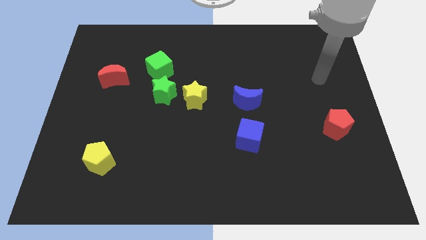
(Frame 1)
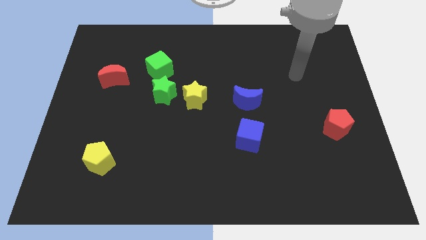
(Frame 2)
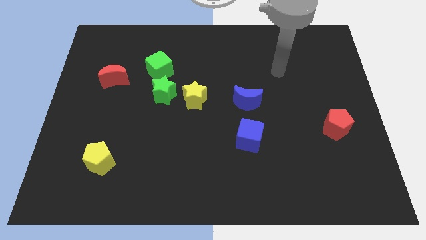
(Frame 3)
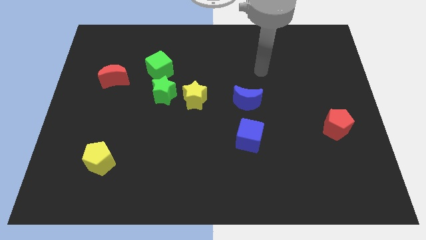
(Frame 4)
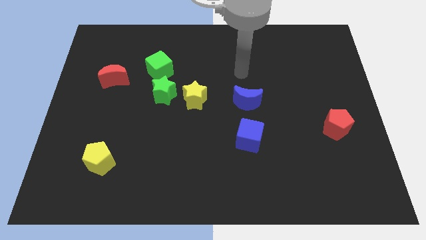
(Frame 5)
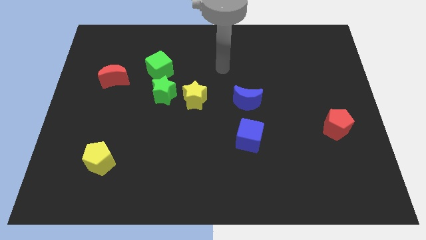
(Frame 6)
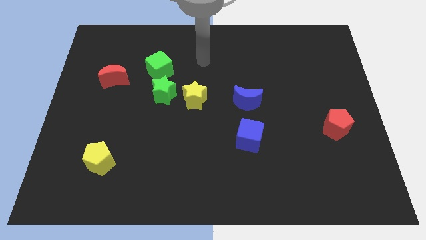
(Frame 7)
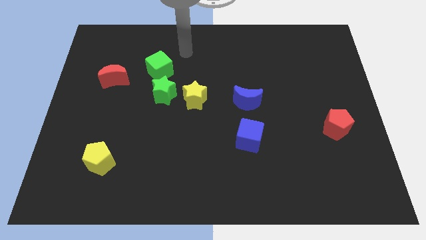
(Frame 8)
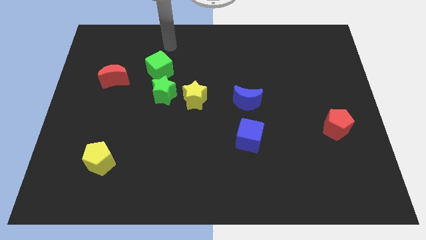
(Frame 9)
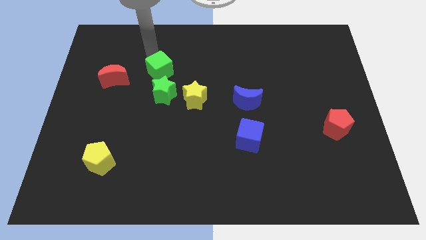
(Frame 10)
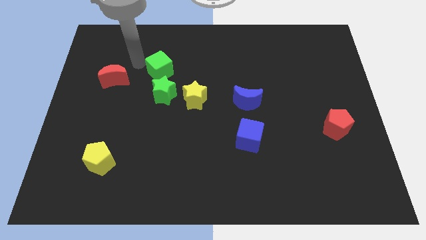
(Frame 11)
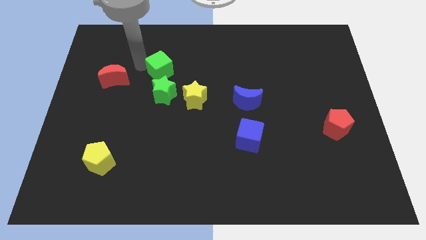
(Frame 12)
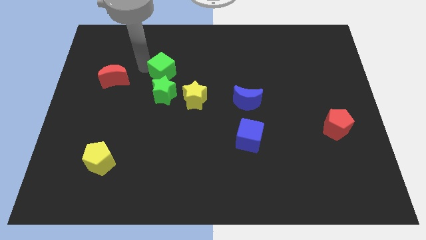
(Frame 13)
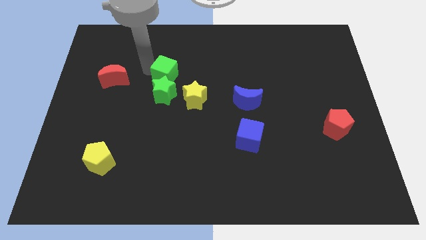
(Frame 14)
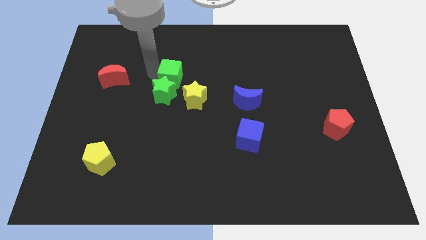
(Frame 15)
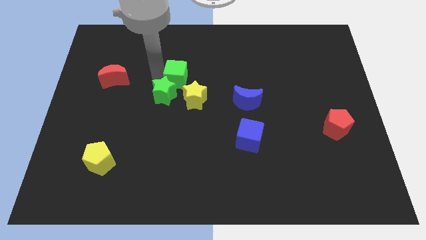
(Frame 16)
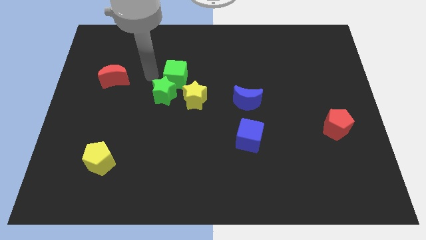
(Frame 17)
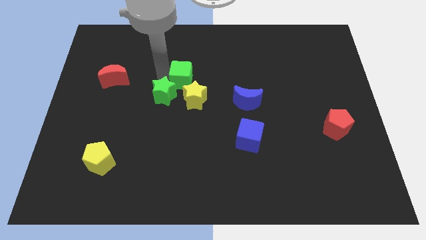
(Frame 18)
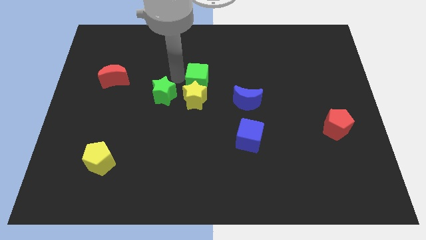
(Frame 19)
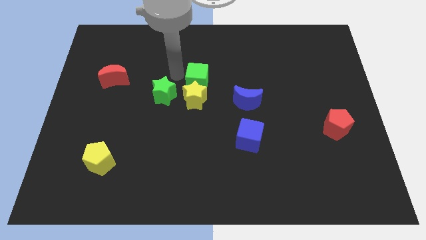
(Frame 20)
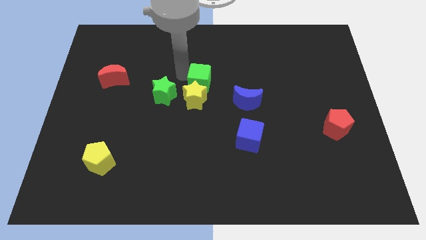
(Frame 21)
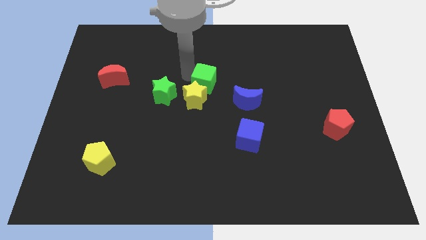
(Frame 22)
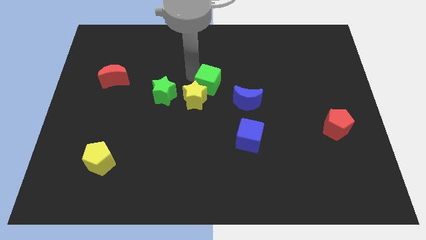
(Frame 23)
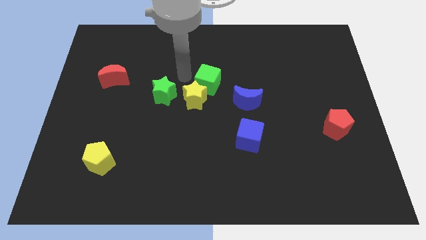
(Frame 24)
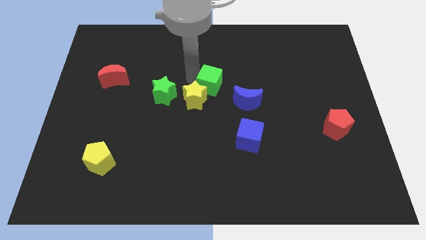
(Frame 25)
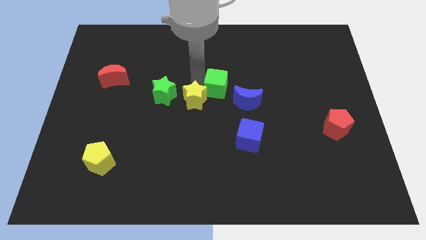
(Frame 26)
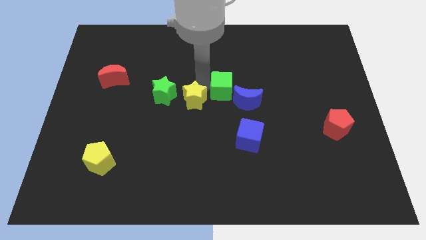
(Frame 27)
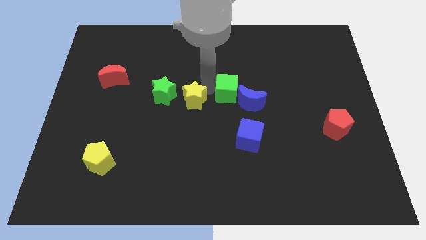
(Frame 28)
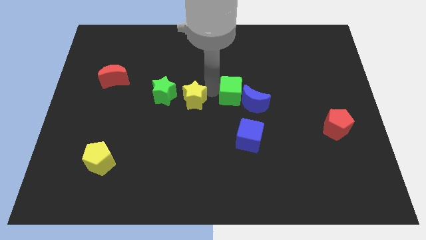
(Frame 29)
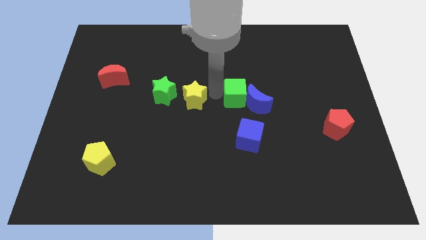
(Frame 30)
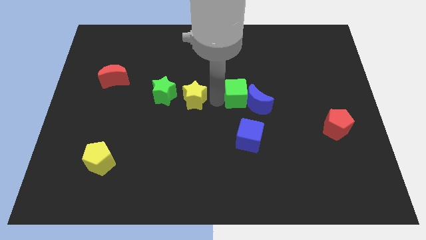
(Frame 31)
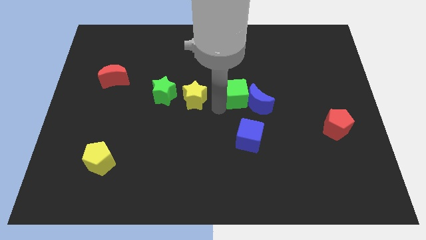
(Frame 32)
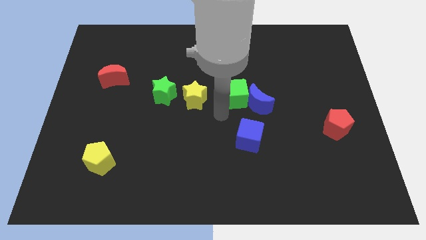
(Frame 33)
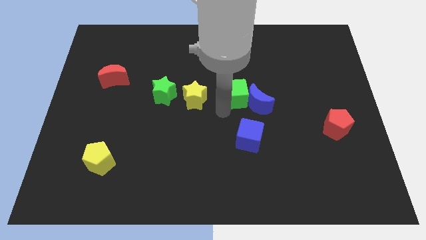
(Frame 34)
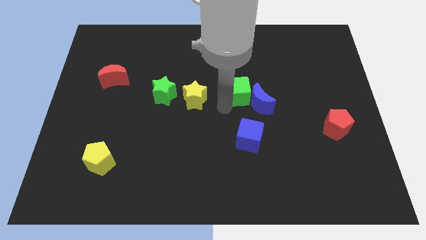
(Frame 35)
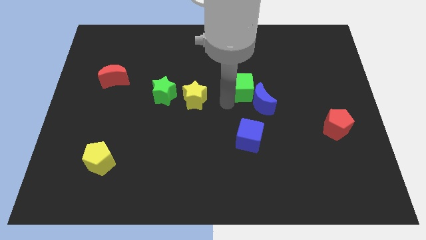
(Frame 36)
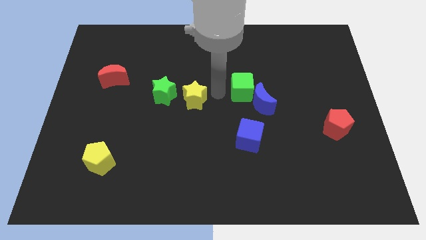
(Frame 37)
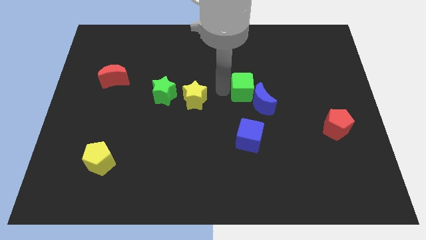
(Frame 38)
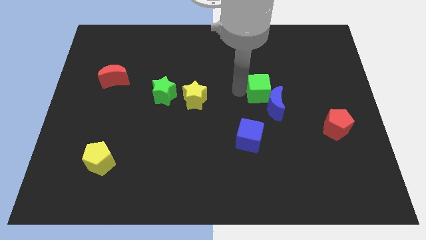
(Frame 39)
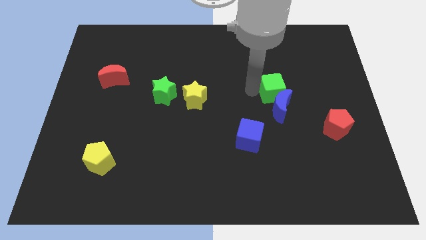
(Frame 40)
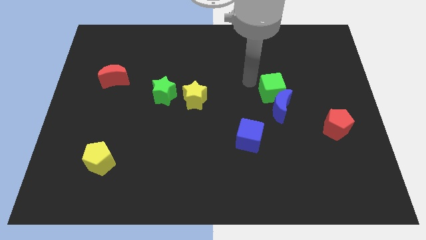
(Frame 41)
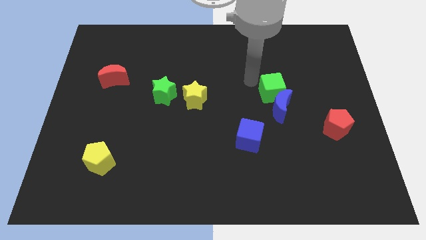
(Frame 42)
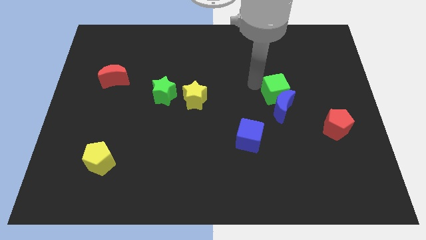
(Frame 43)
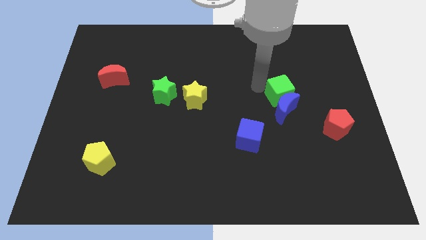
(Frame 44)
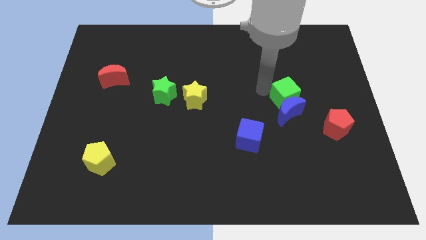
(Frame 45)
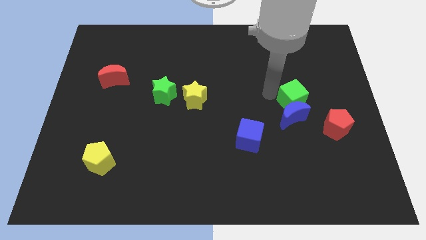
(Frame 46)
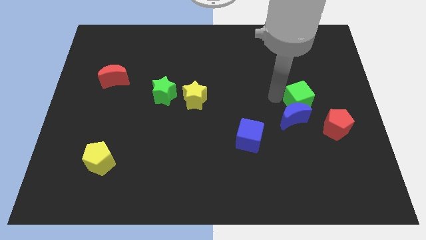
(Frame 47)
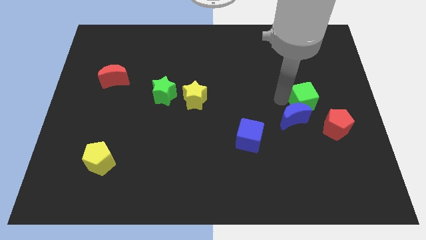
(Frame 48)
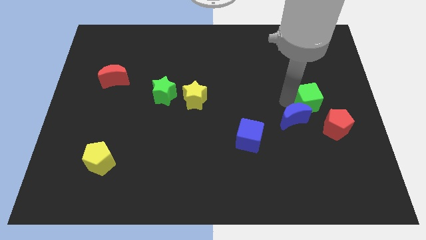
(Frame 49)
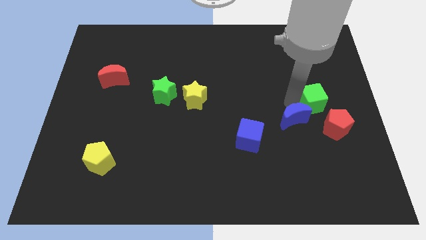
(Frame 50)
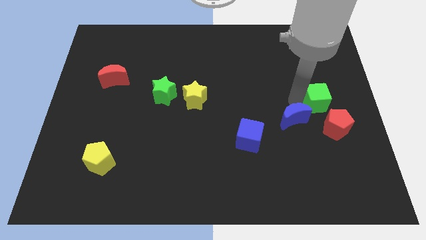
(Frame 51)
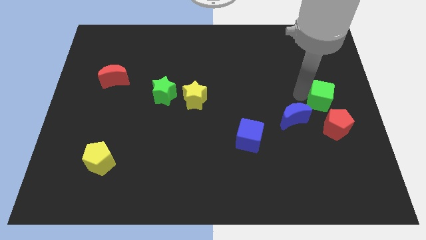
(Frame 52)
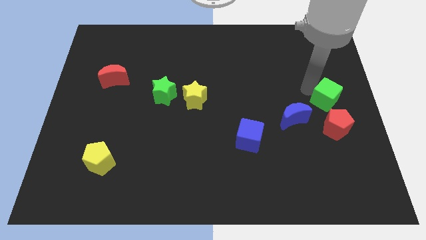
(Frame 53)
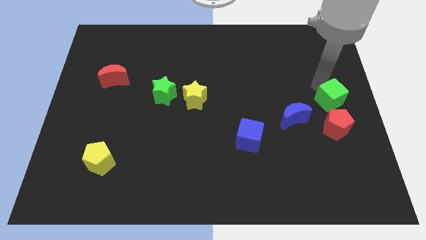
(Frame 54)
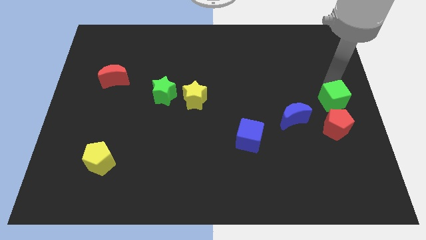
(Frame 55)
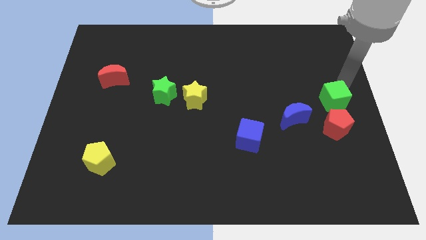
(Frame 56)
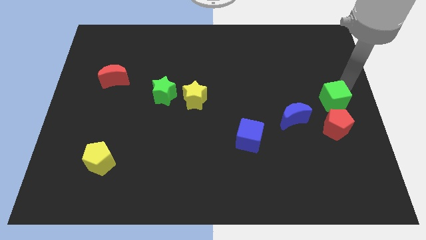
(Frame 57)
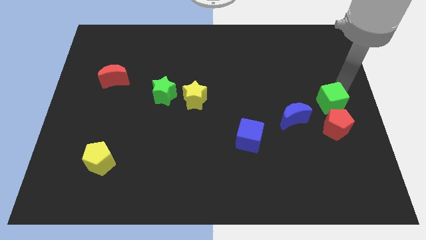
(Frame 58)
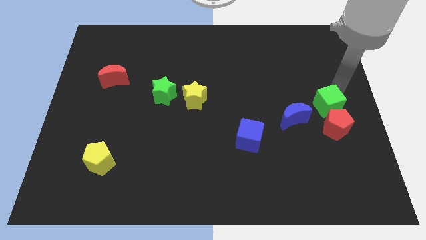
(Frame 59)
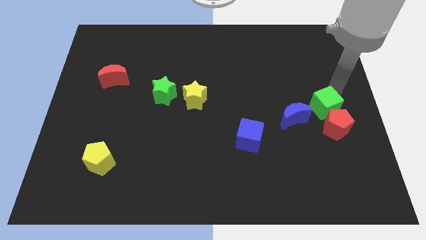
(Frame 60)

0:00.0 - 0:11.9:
slide the green cube close to the red pentagon

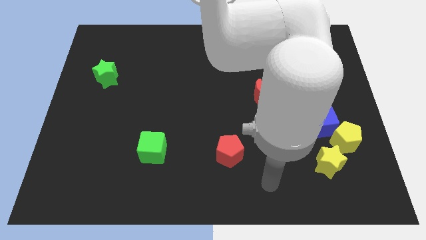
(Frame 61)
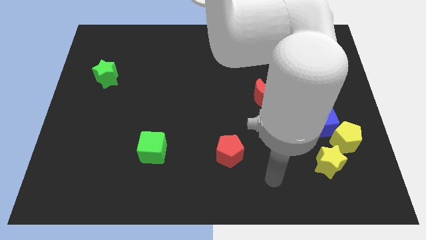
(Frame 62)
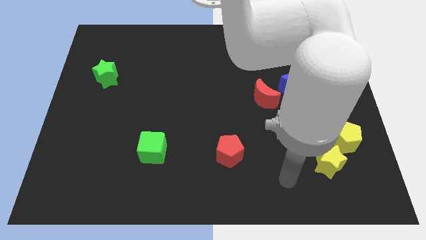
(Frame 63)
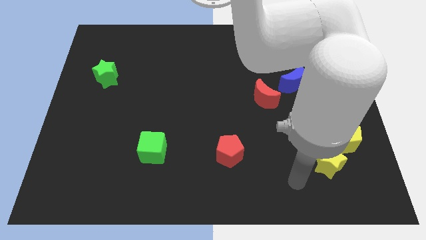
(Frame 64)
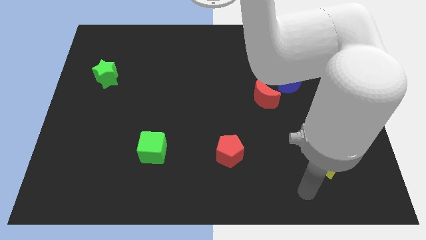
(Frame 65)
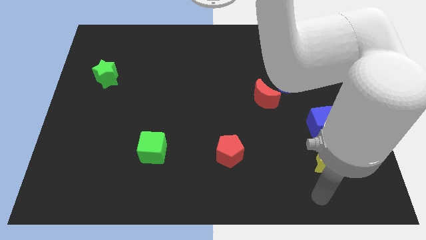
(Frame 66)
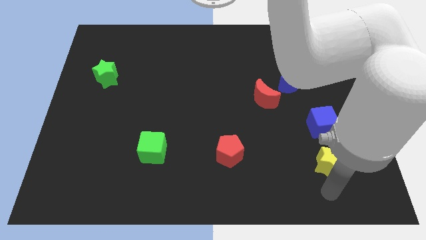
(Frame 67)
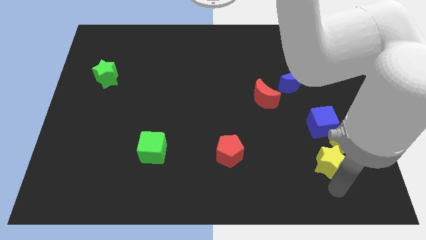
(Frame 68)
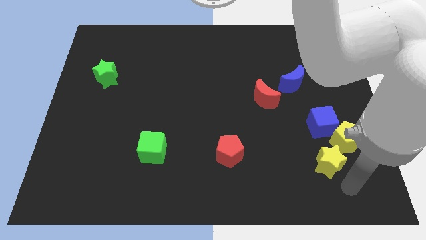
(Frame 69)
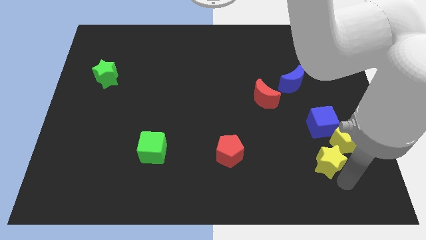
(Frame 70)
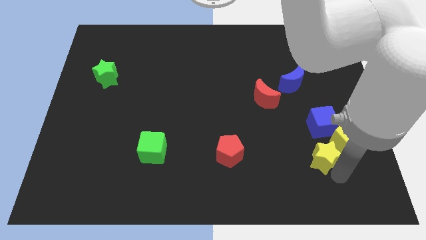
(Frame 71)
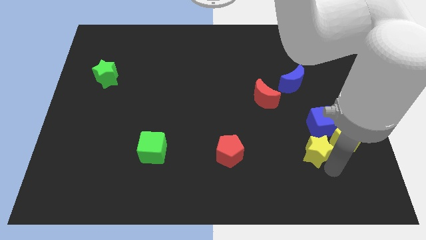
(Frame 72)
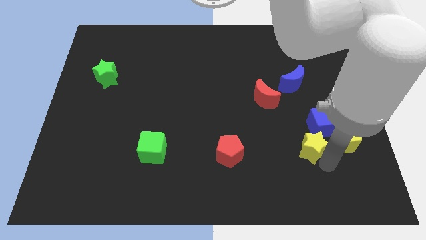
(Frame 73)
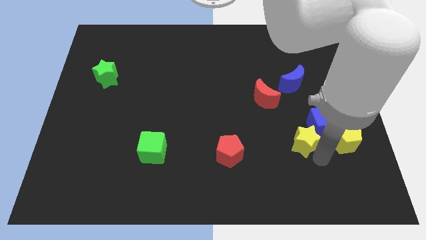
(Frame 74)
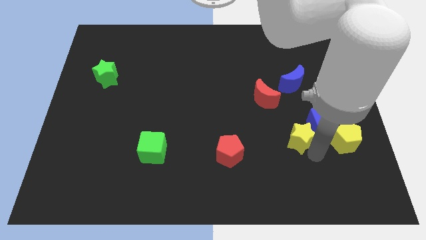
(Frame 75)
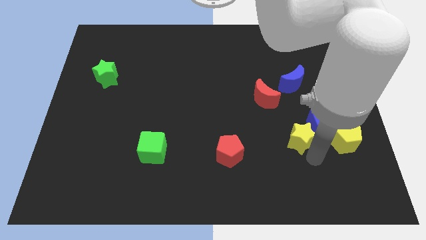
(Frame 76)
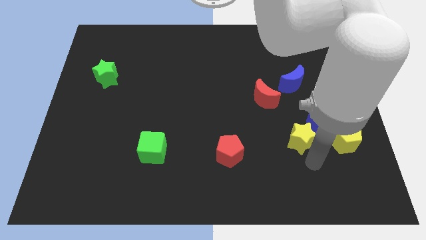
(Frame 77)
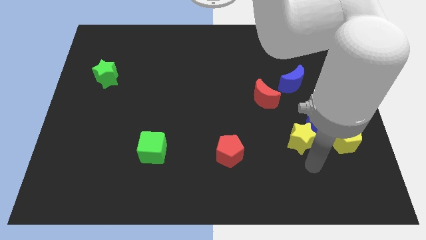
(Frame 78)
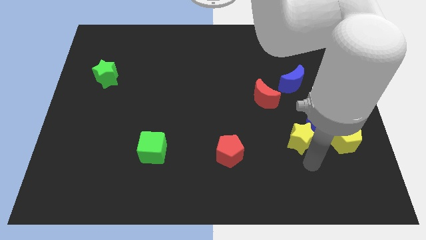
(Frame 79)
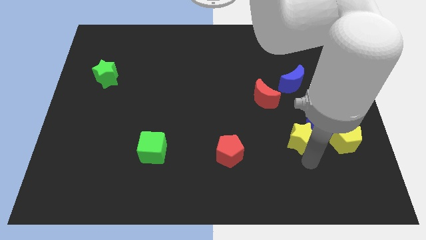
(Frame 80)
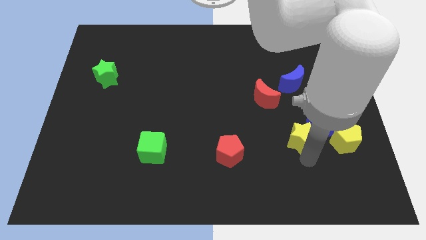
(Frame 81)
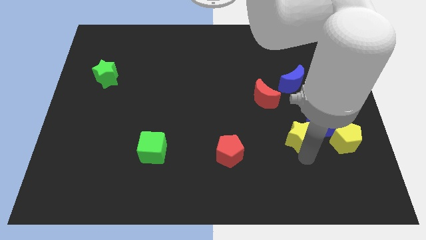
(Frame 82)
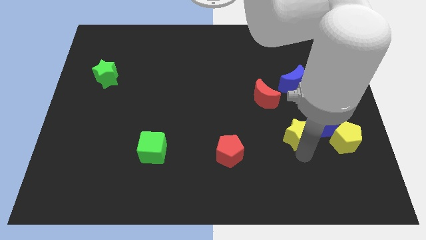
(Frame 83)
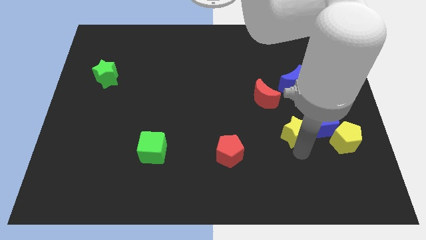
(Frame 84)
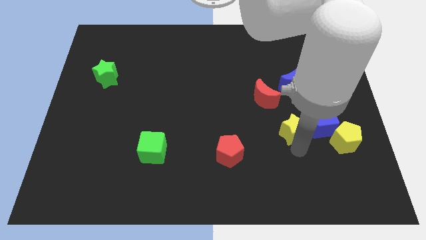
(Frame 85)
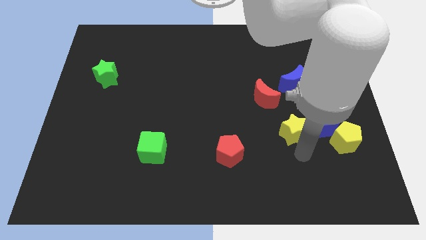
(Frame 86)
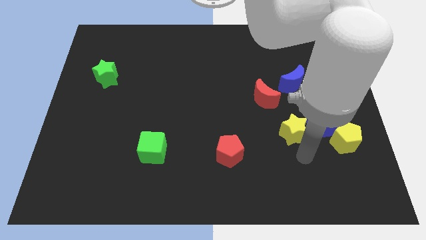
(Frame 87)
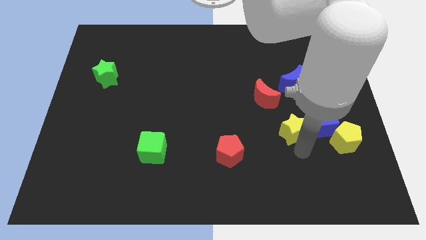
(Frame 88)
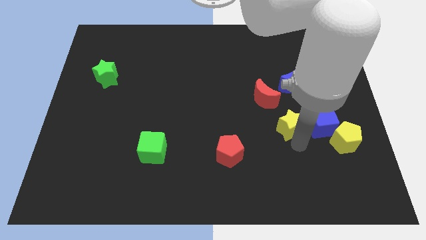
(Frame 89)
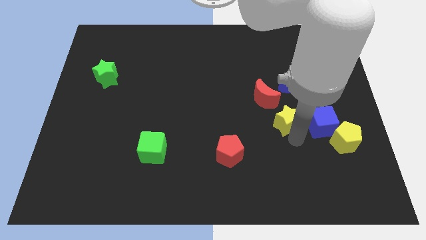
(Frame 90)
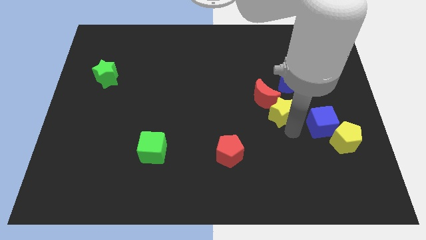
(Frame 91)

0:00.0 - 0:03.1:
move the yellow star towards the red moon
